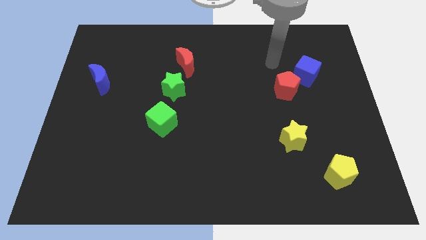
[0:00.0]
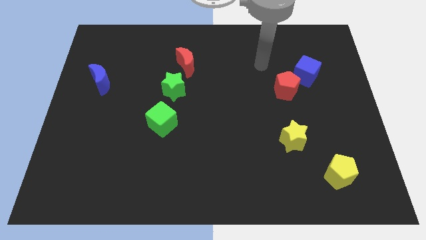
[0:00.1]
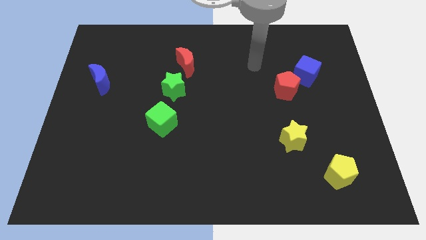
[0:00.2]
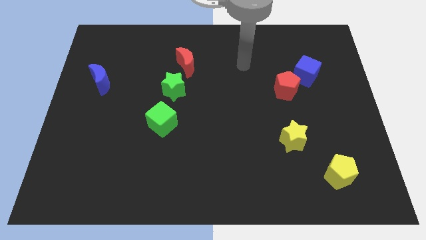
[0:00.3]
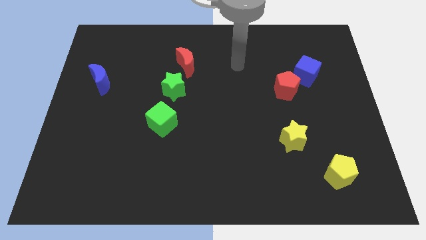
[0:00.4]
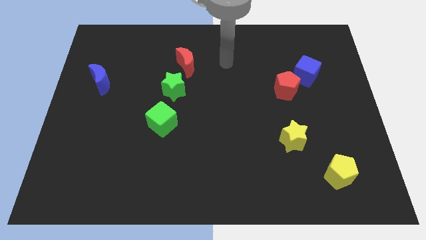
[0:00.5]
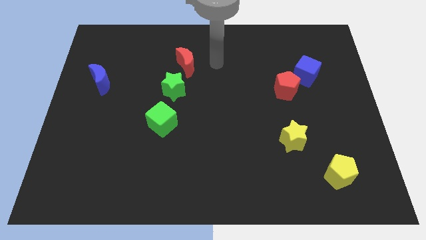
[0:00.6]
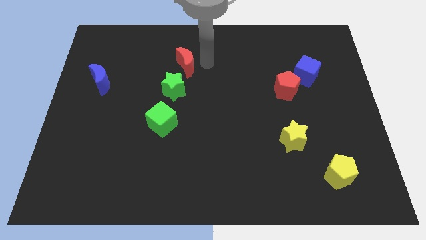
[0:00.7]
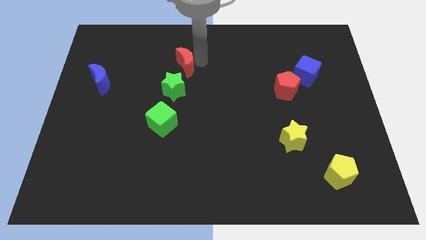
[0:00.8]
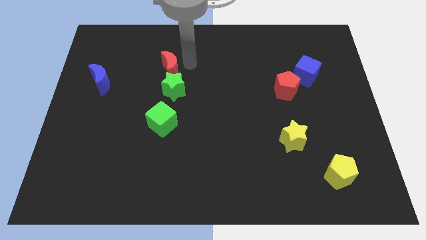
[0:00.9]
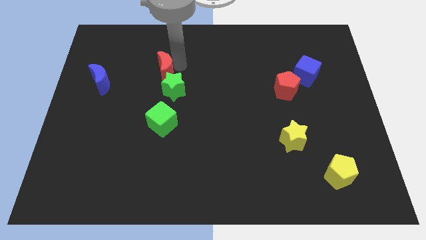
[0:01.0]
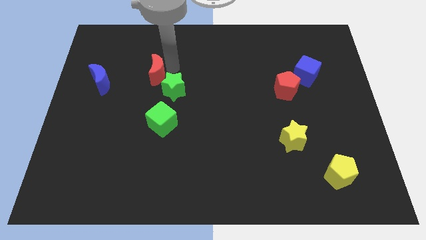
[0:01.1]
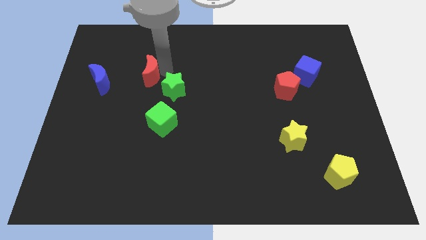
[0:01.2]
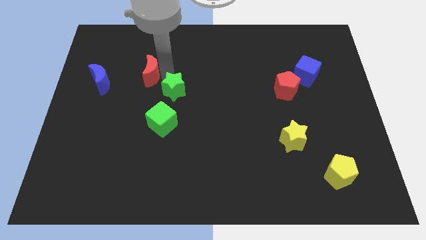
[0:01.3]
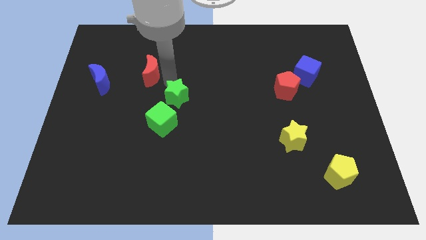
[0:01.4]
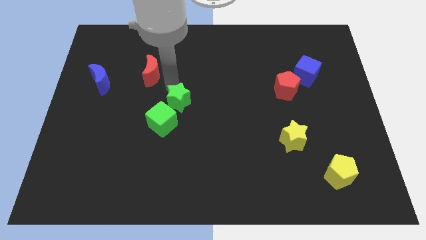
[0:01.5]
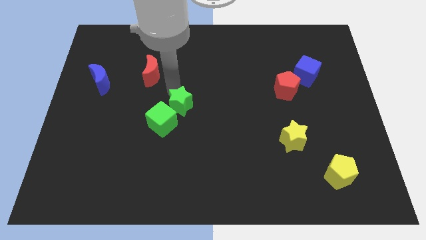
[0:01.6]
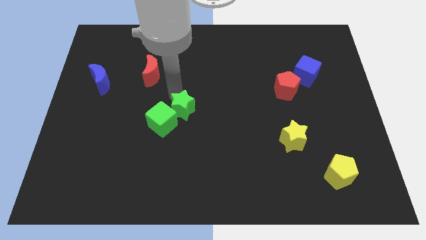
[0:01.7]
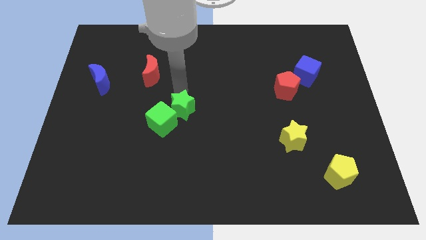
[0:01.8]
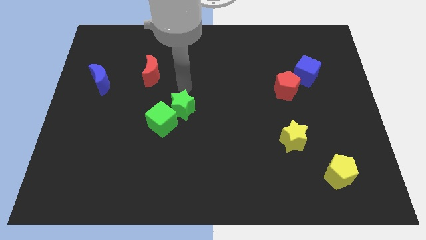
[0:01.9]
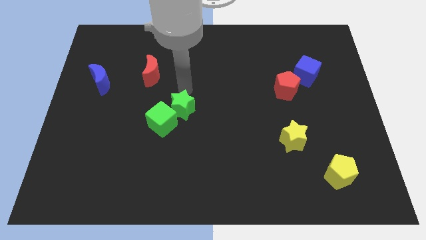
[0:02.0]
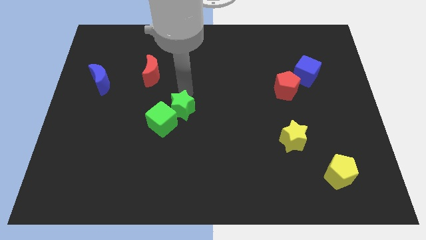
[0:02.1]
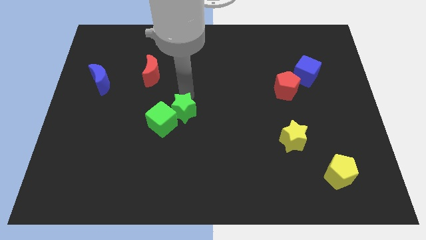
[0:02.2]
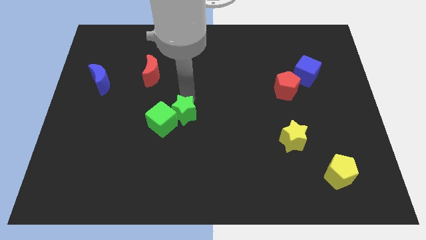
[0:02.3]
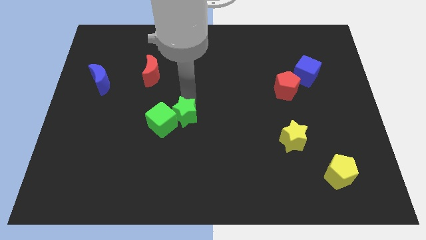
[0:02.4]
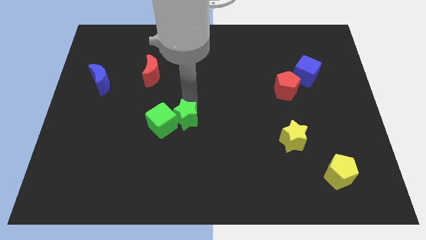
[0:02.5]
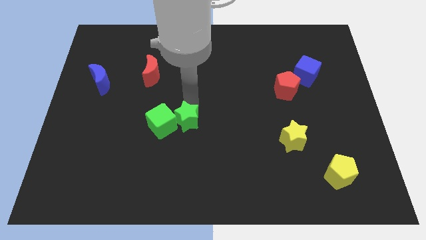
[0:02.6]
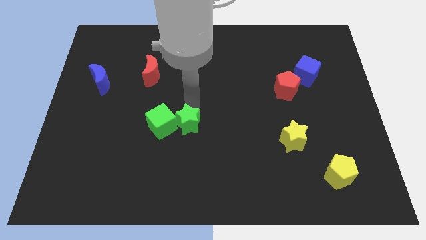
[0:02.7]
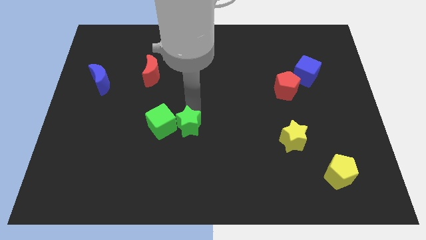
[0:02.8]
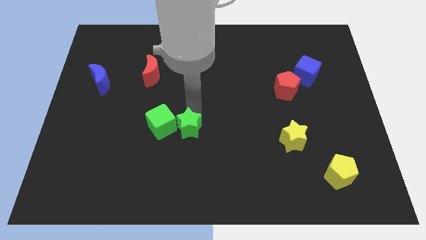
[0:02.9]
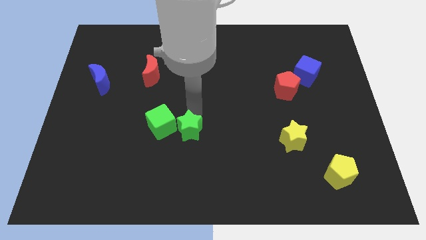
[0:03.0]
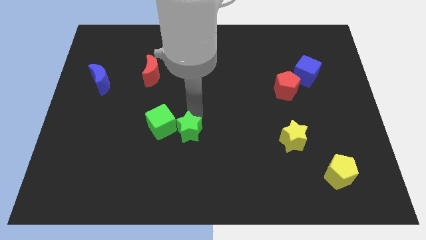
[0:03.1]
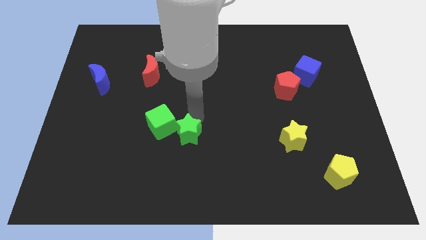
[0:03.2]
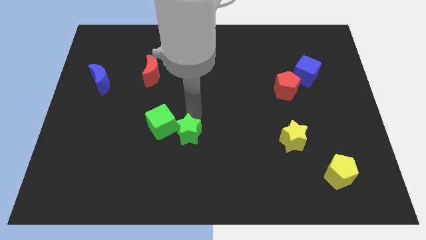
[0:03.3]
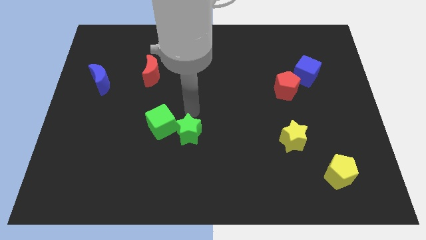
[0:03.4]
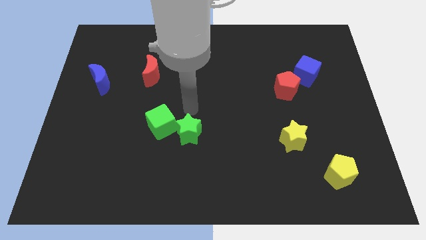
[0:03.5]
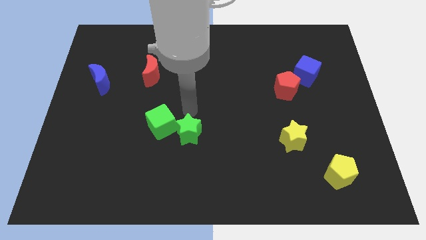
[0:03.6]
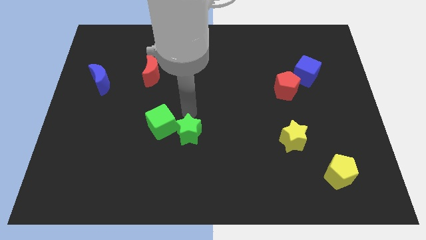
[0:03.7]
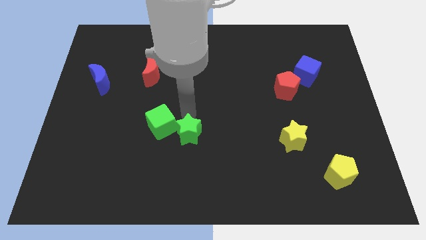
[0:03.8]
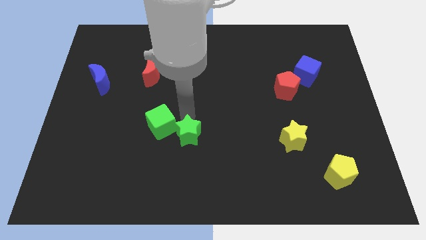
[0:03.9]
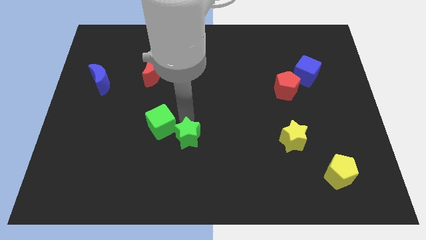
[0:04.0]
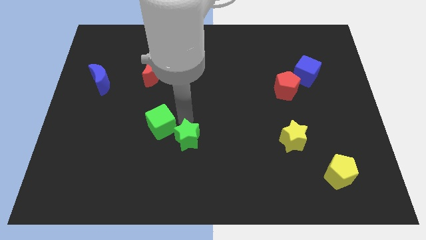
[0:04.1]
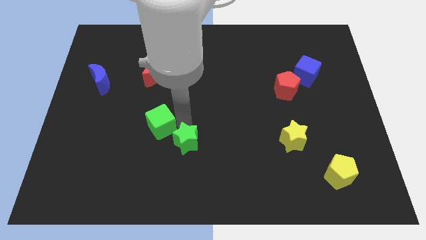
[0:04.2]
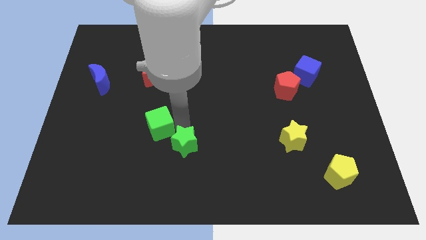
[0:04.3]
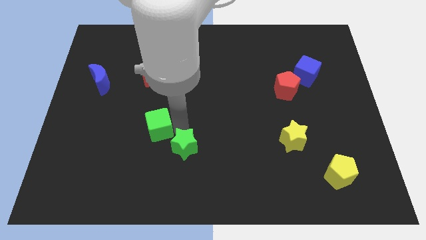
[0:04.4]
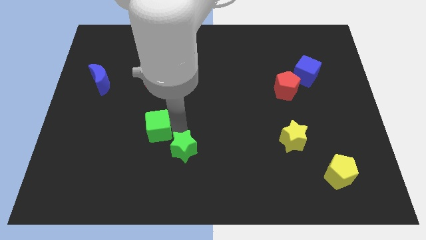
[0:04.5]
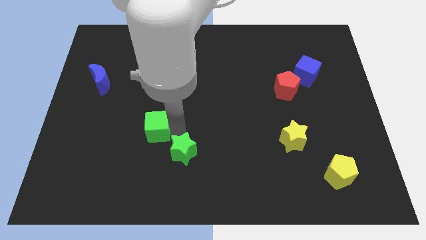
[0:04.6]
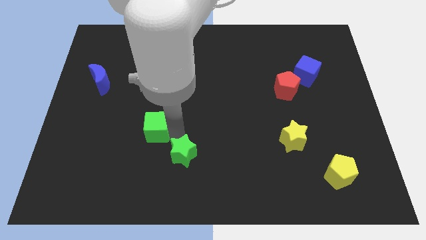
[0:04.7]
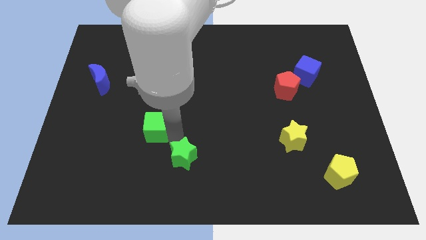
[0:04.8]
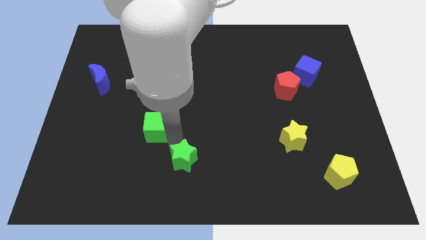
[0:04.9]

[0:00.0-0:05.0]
move the green star to the bottom side

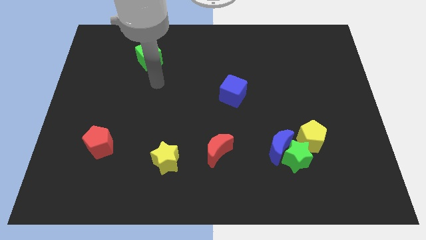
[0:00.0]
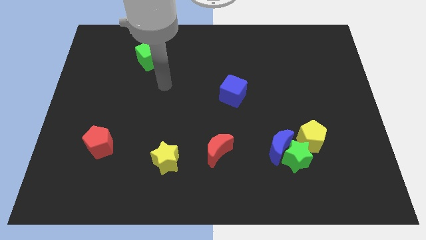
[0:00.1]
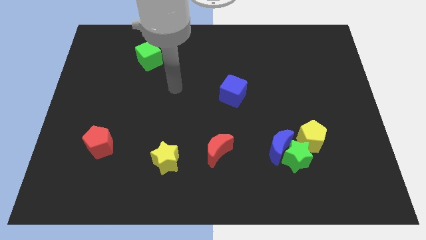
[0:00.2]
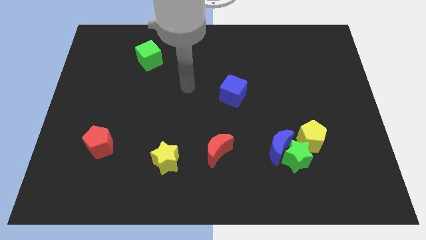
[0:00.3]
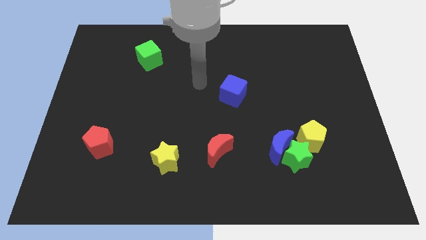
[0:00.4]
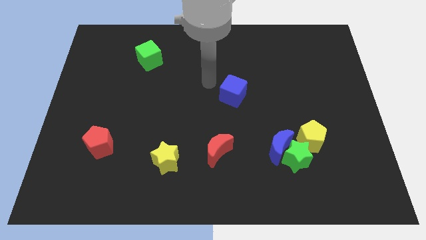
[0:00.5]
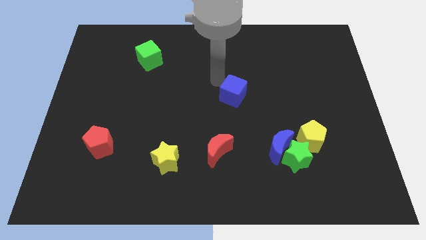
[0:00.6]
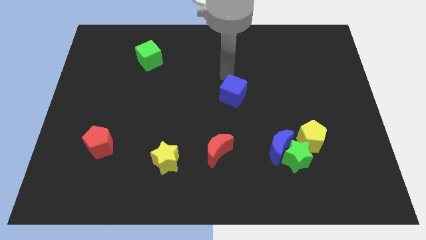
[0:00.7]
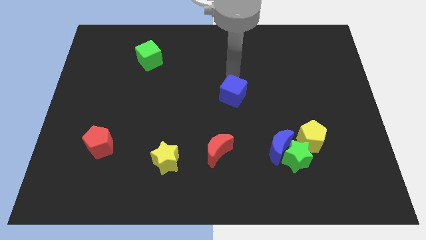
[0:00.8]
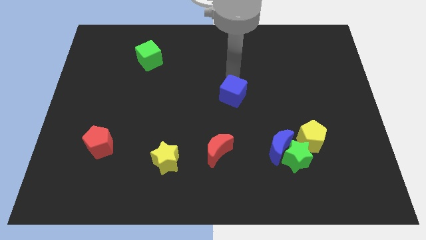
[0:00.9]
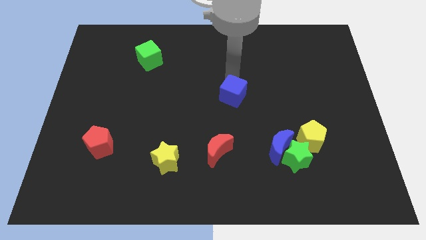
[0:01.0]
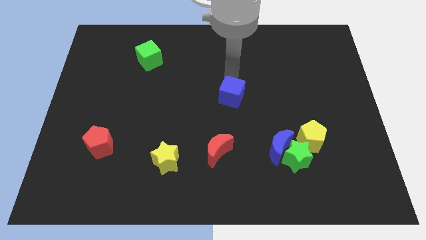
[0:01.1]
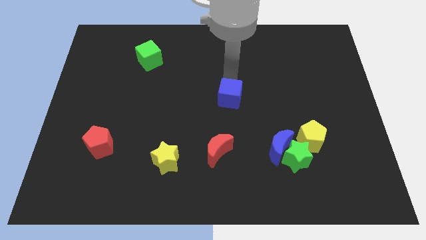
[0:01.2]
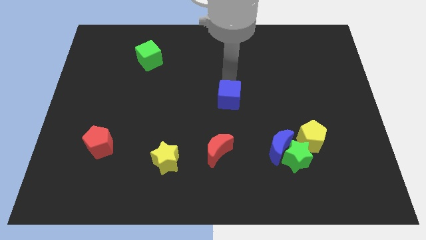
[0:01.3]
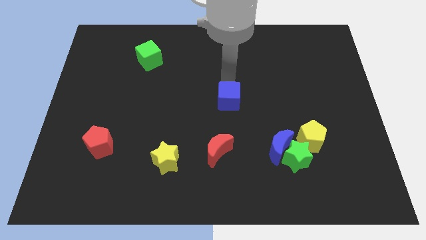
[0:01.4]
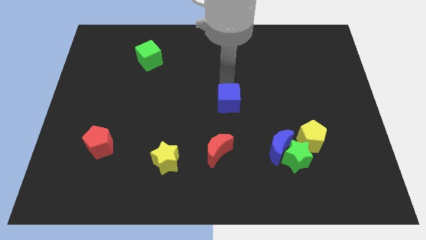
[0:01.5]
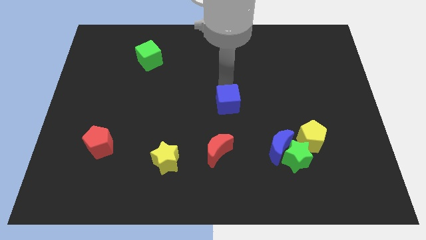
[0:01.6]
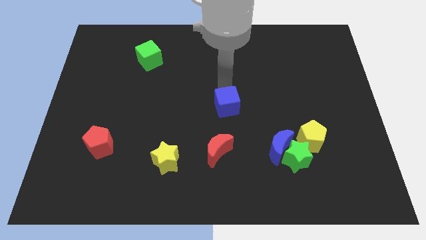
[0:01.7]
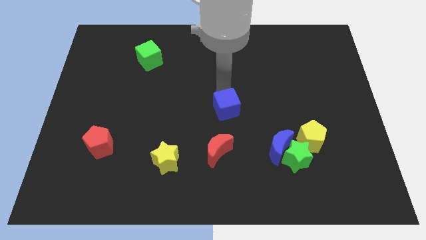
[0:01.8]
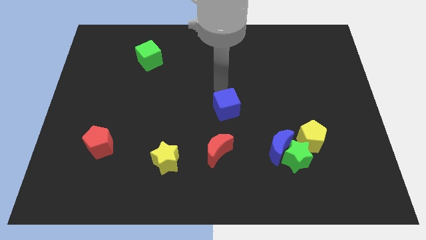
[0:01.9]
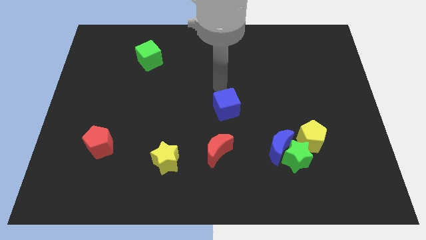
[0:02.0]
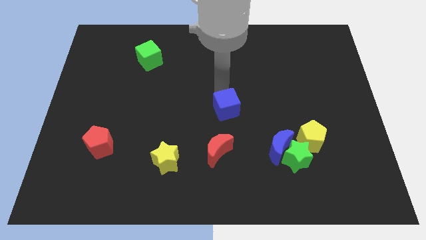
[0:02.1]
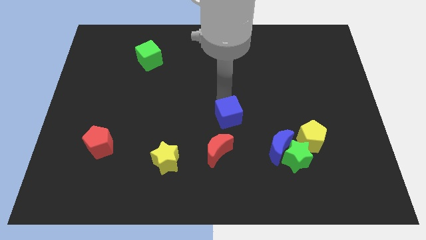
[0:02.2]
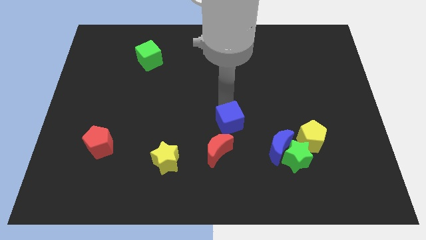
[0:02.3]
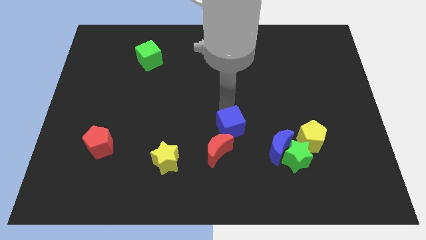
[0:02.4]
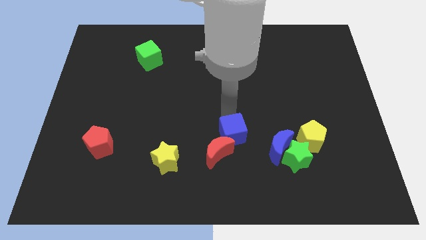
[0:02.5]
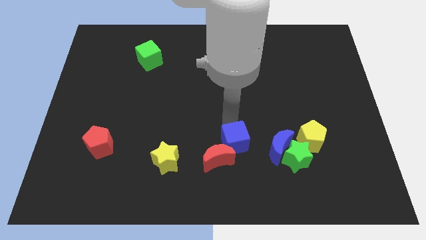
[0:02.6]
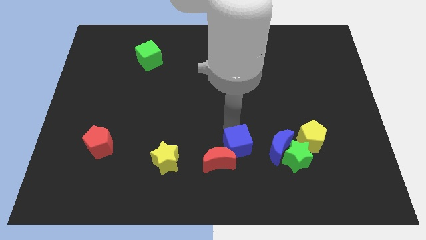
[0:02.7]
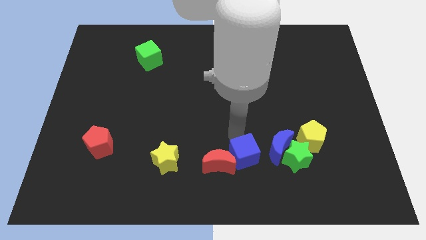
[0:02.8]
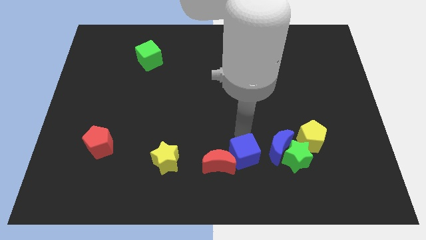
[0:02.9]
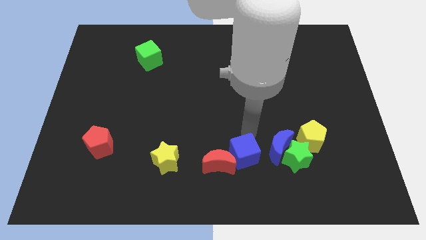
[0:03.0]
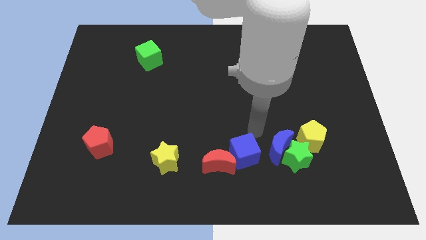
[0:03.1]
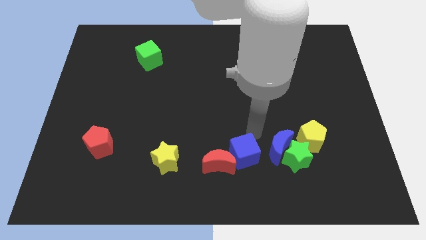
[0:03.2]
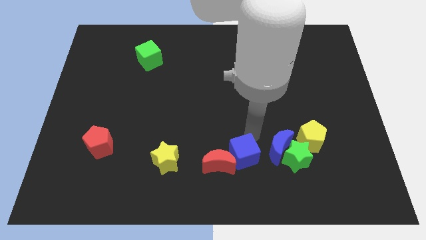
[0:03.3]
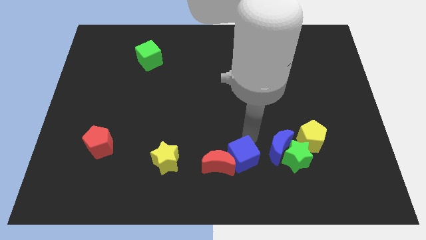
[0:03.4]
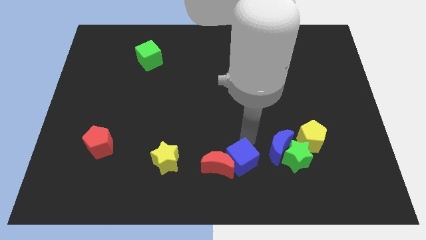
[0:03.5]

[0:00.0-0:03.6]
move the blue cube to the bottom side
